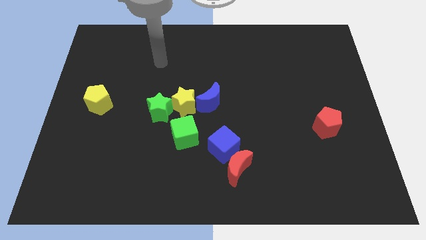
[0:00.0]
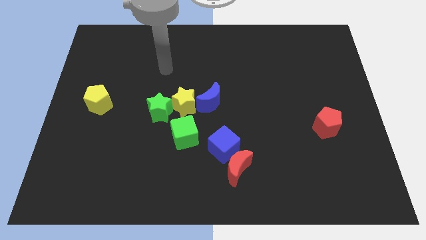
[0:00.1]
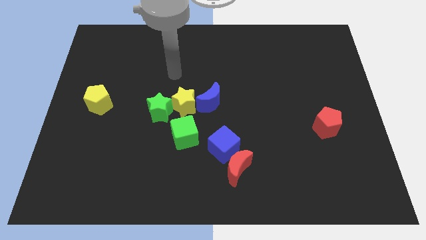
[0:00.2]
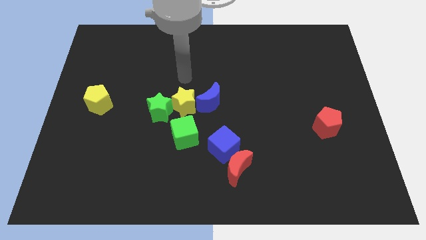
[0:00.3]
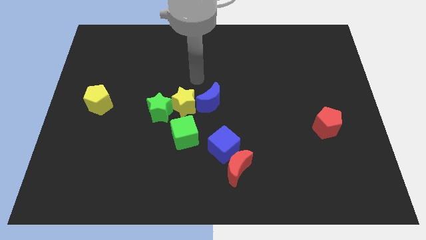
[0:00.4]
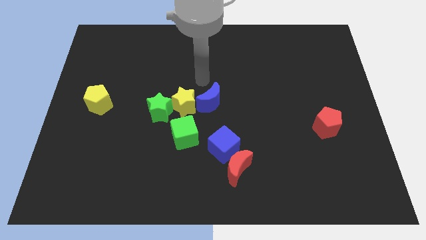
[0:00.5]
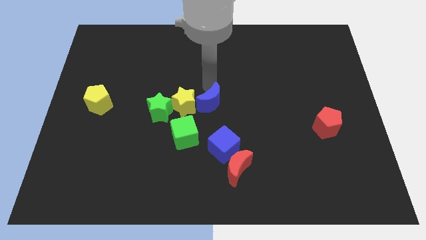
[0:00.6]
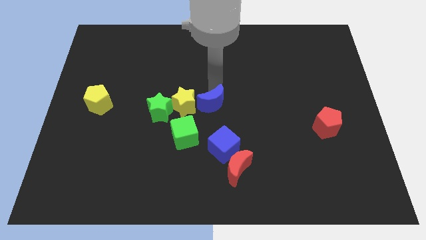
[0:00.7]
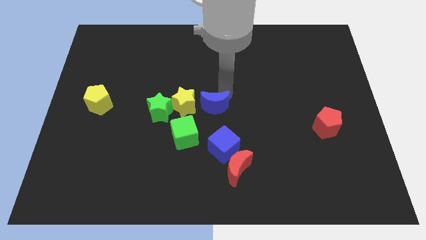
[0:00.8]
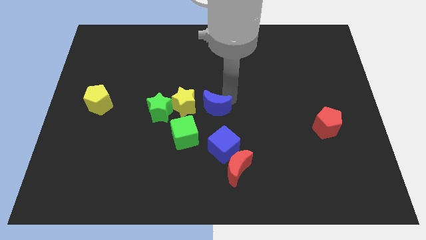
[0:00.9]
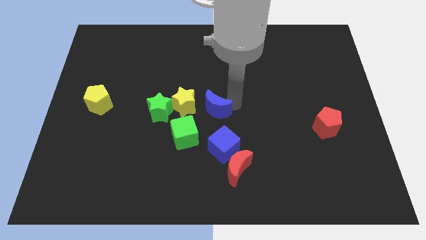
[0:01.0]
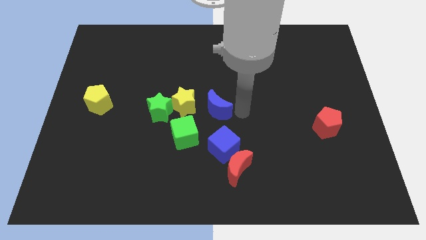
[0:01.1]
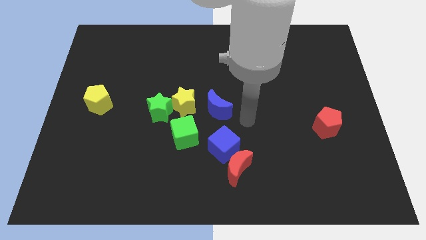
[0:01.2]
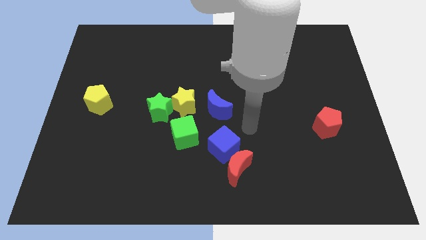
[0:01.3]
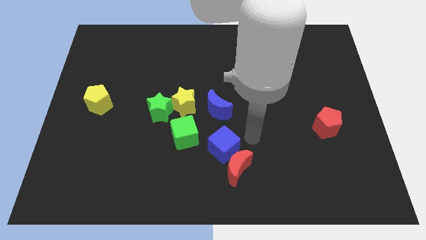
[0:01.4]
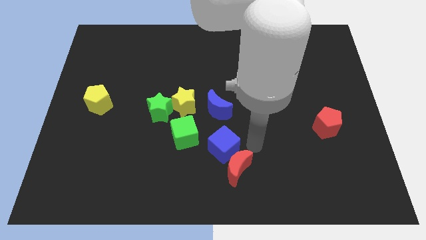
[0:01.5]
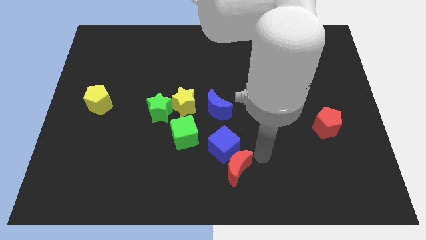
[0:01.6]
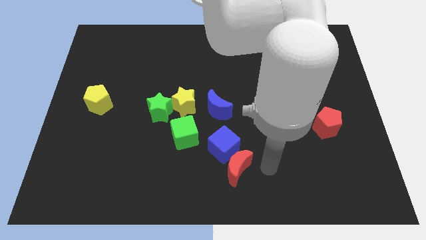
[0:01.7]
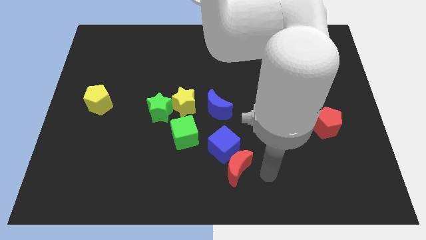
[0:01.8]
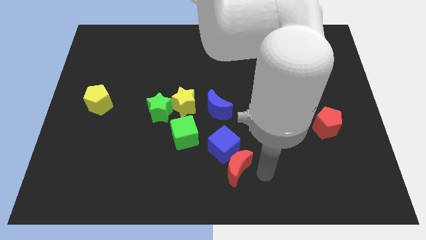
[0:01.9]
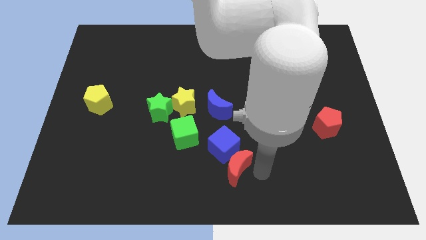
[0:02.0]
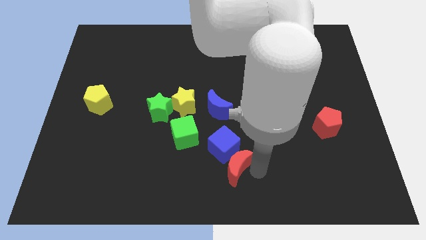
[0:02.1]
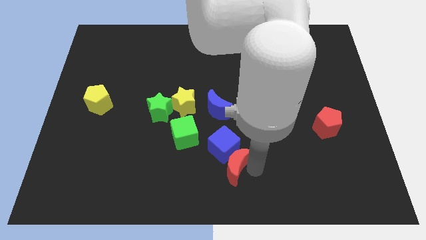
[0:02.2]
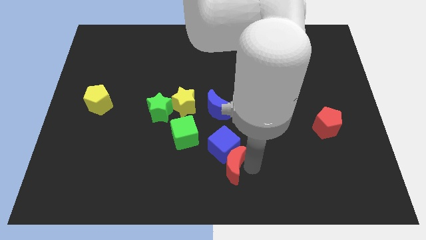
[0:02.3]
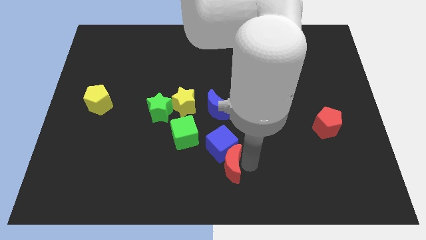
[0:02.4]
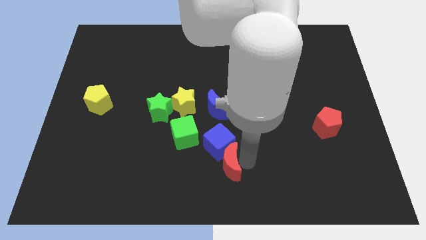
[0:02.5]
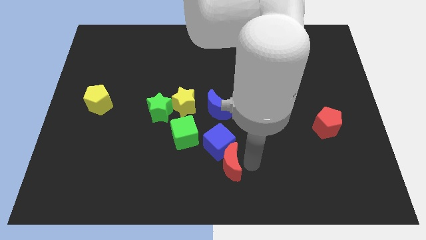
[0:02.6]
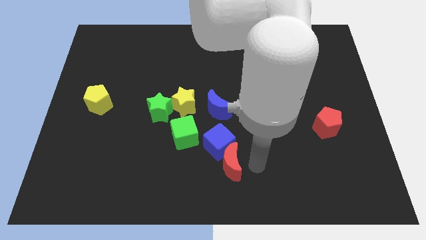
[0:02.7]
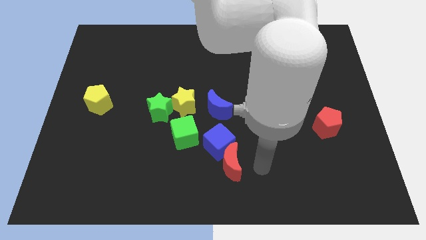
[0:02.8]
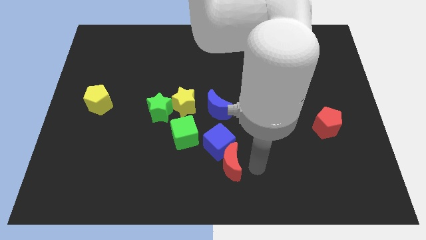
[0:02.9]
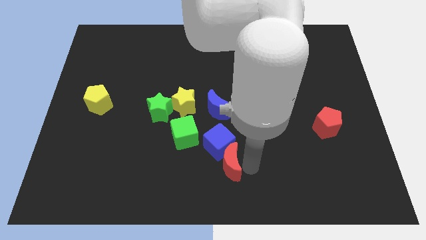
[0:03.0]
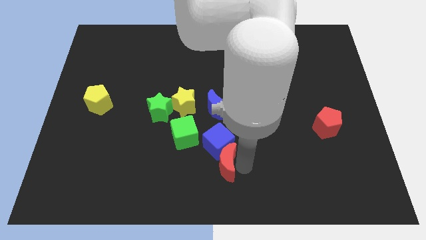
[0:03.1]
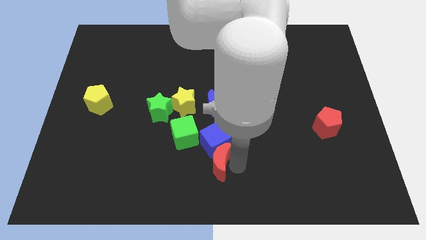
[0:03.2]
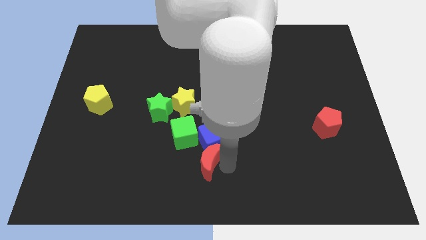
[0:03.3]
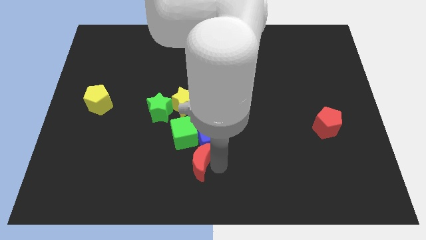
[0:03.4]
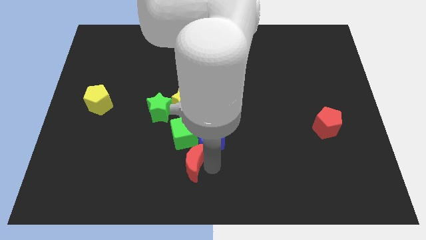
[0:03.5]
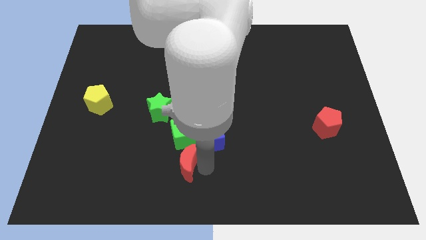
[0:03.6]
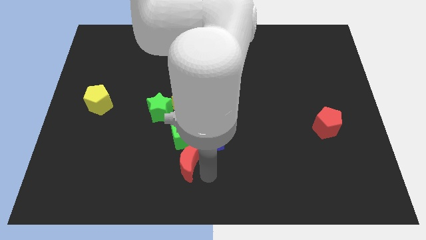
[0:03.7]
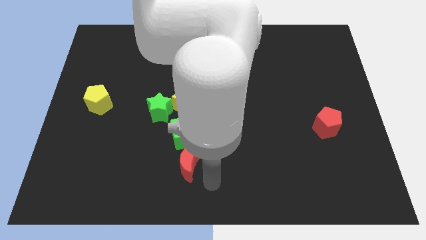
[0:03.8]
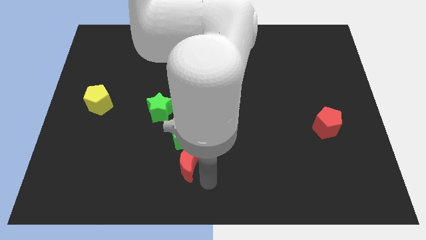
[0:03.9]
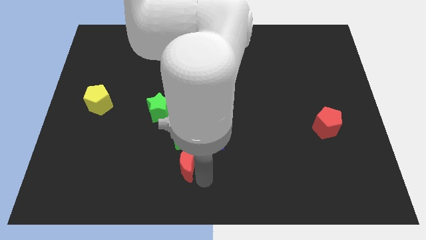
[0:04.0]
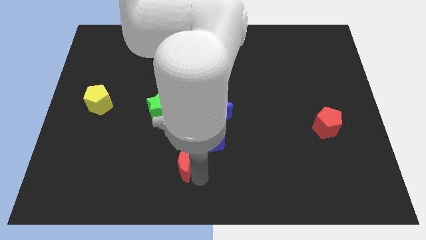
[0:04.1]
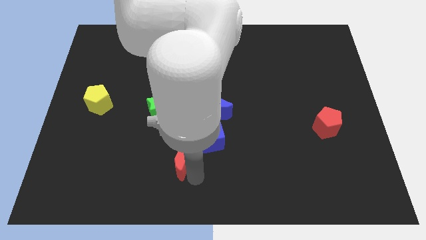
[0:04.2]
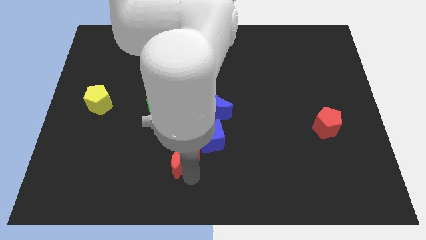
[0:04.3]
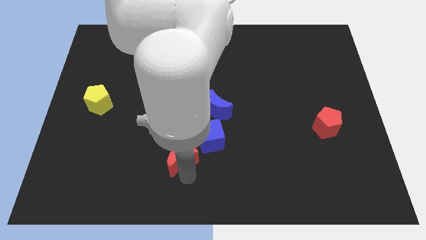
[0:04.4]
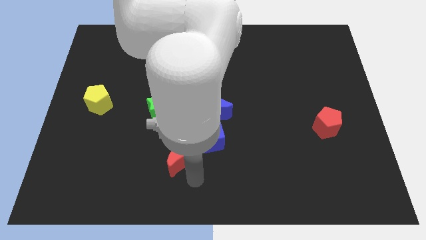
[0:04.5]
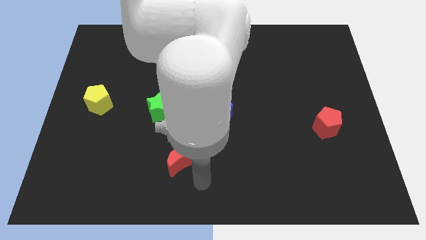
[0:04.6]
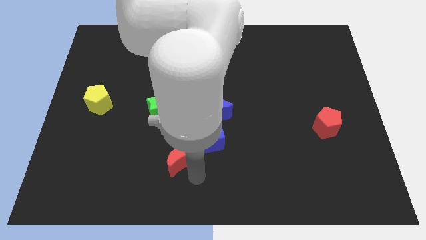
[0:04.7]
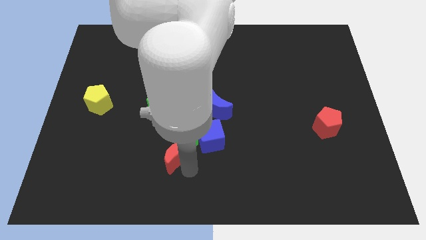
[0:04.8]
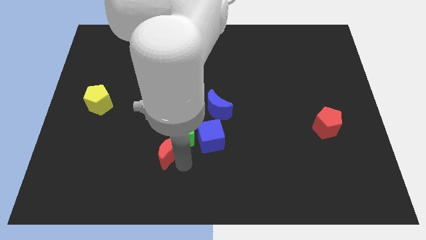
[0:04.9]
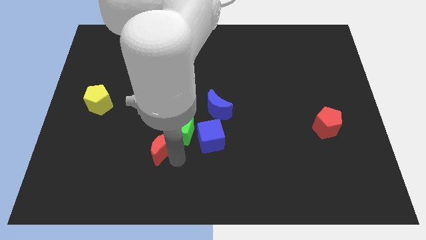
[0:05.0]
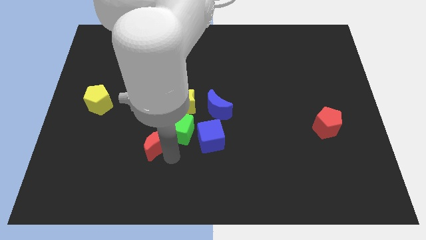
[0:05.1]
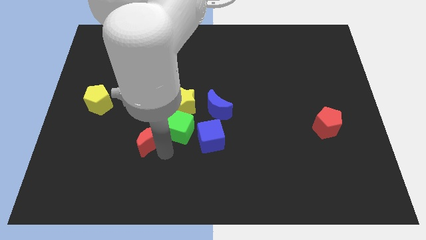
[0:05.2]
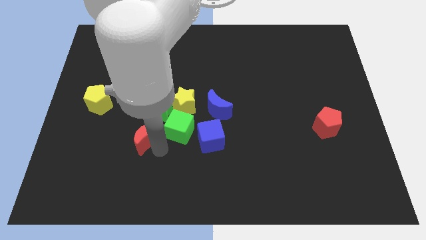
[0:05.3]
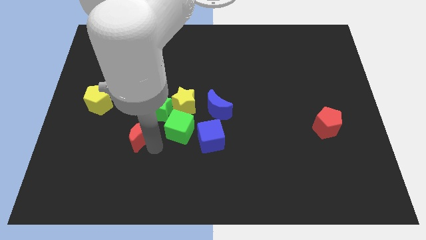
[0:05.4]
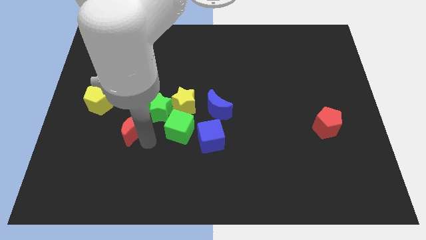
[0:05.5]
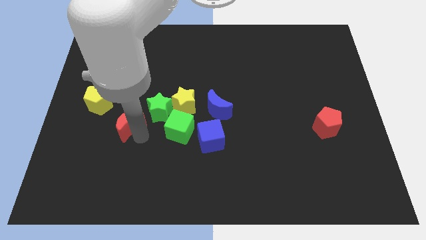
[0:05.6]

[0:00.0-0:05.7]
move the red moon just left of the green star

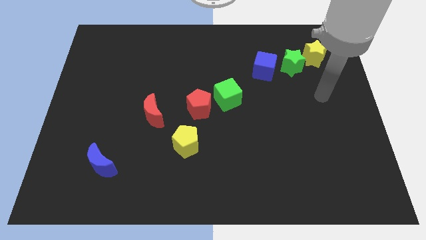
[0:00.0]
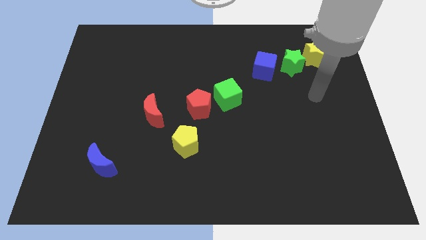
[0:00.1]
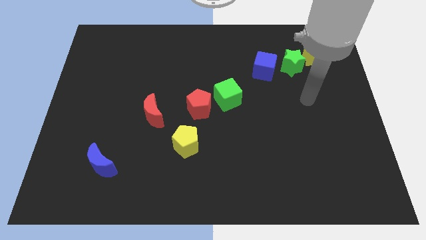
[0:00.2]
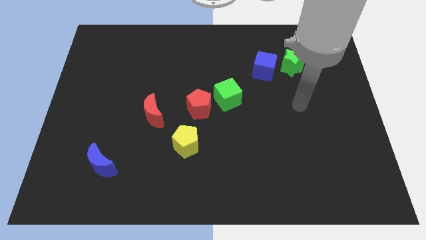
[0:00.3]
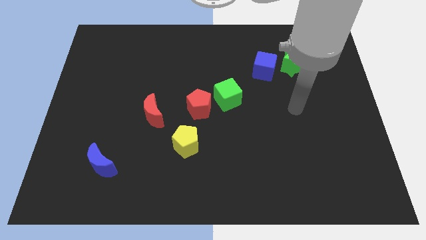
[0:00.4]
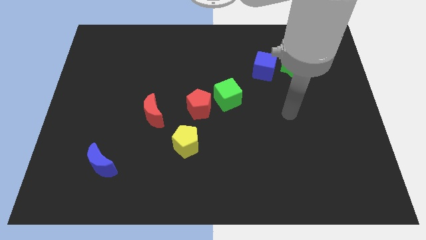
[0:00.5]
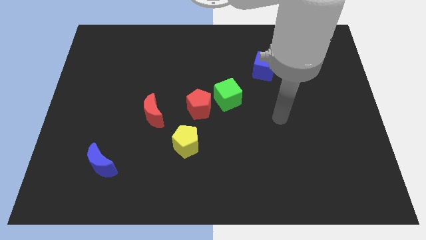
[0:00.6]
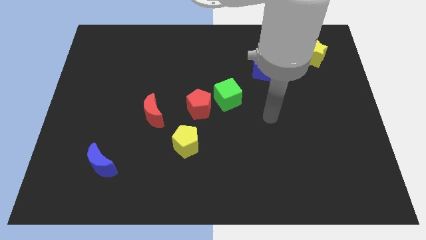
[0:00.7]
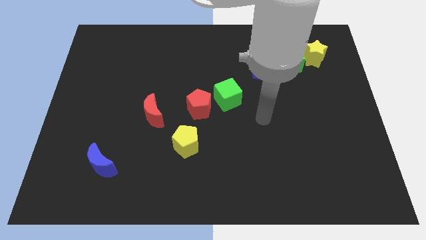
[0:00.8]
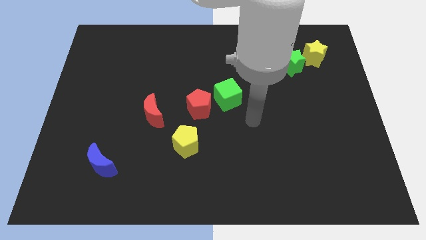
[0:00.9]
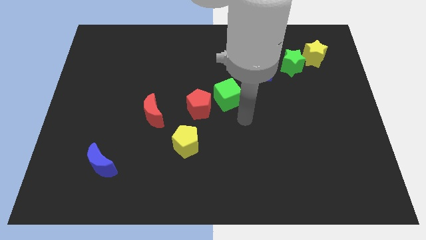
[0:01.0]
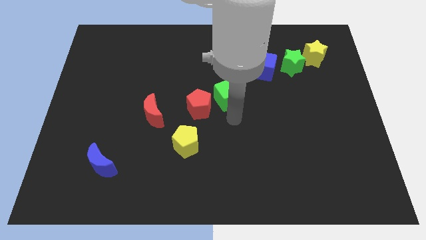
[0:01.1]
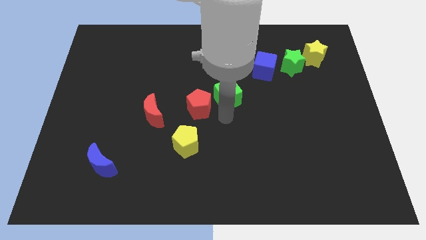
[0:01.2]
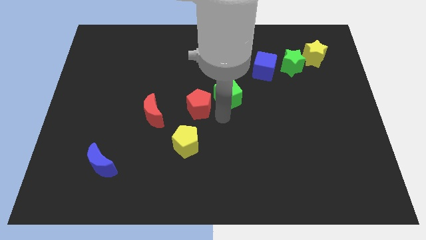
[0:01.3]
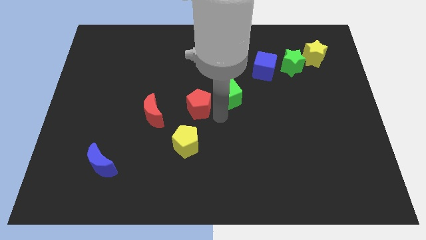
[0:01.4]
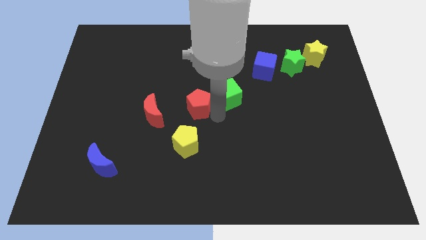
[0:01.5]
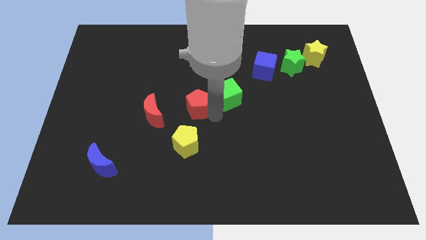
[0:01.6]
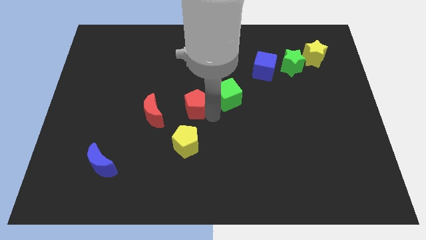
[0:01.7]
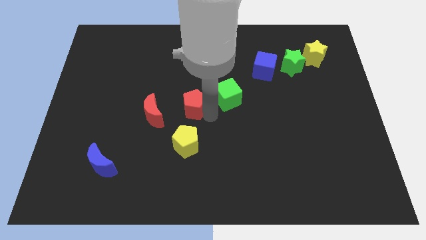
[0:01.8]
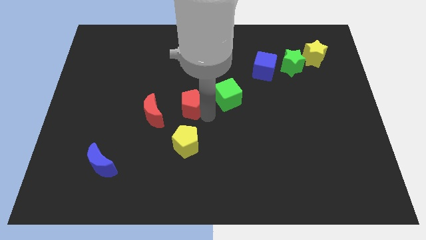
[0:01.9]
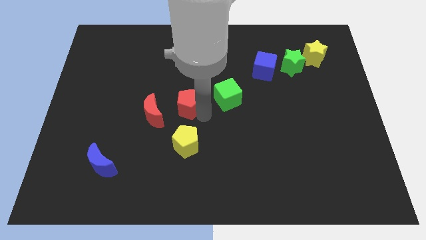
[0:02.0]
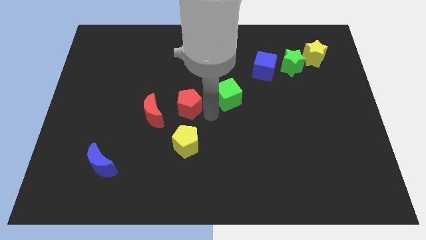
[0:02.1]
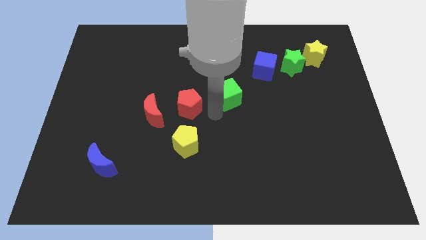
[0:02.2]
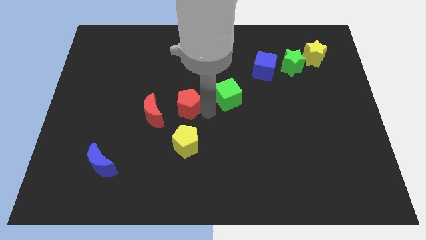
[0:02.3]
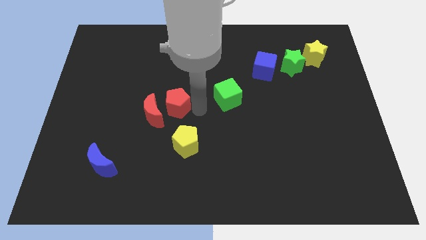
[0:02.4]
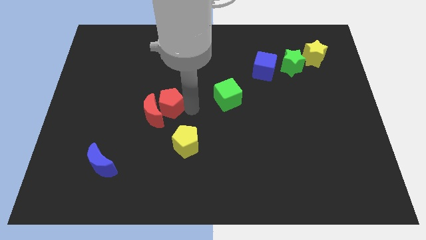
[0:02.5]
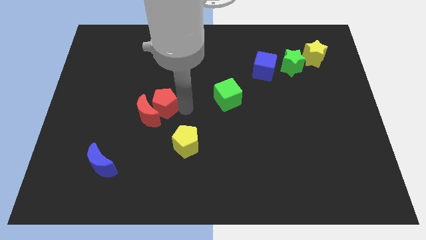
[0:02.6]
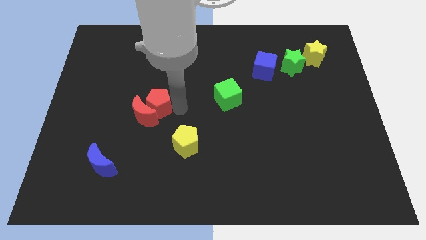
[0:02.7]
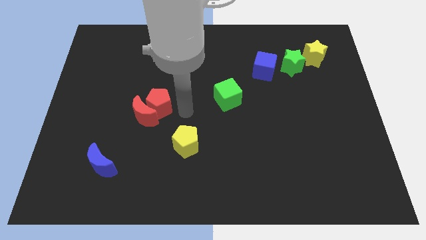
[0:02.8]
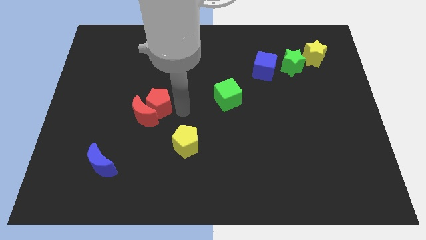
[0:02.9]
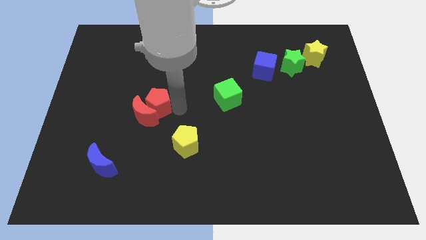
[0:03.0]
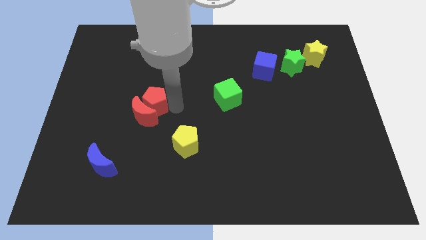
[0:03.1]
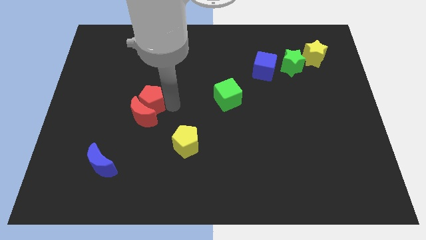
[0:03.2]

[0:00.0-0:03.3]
slide the red pentagon to the top left side of the red moon
